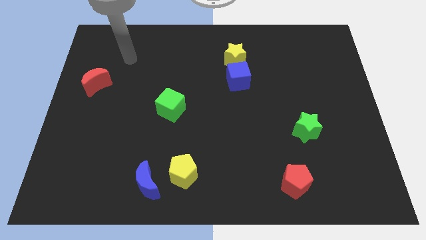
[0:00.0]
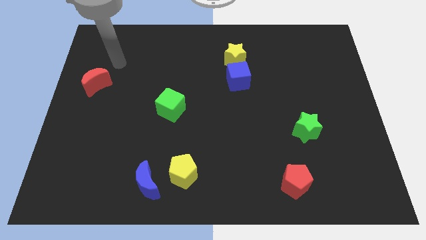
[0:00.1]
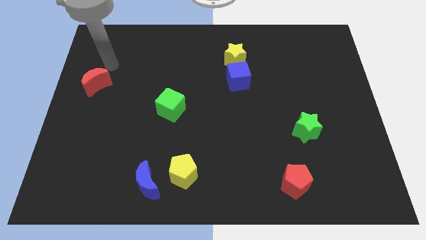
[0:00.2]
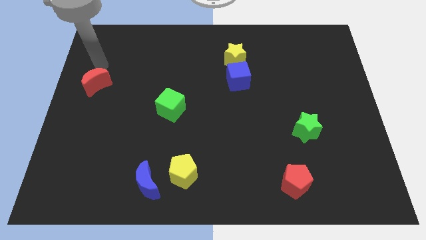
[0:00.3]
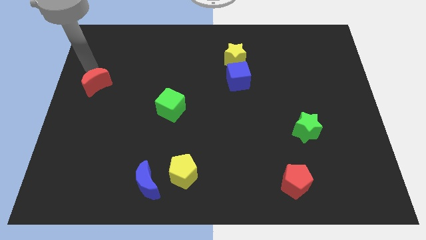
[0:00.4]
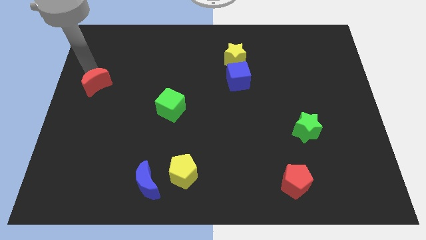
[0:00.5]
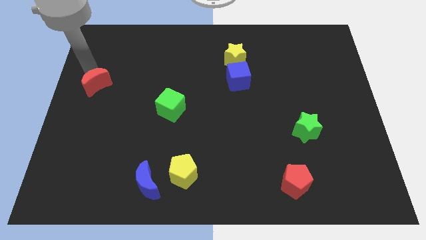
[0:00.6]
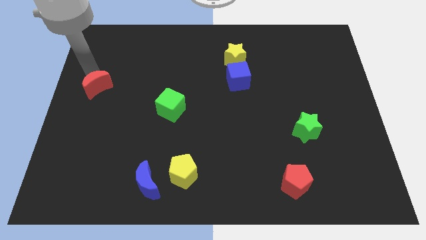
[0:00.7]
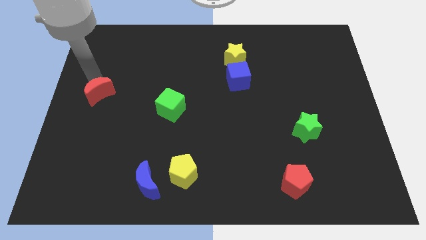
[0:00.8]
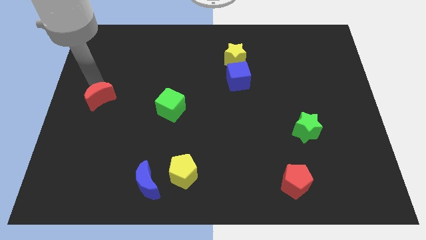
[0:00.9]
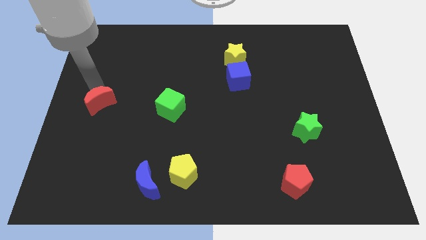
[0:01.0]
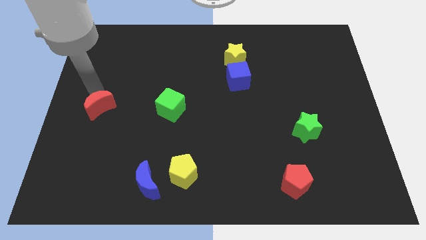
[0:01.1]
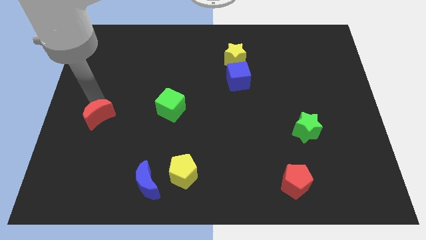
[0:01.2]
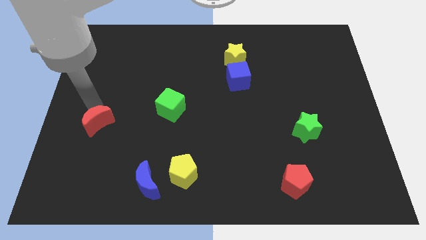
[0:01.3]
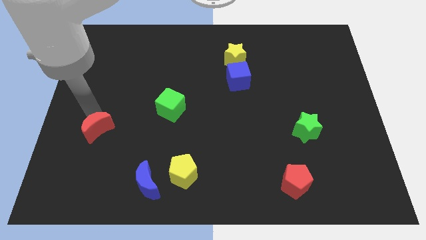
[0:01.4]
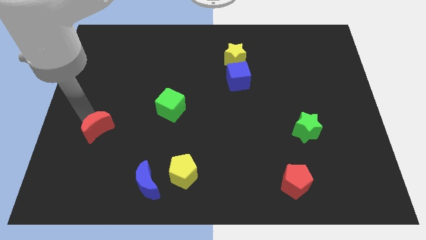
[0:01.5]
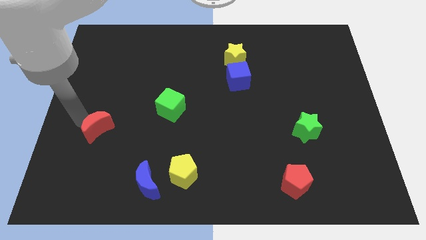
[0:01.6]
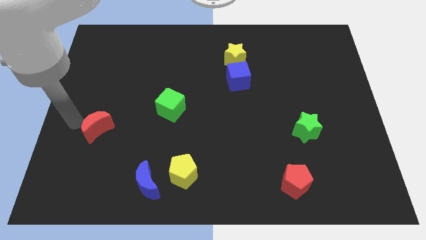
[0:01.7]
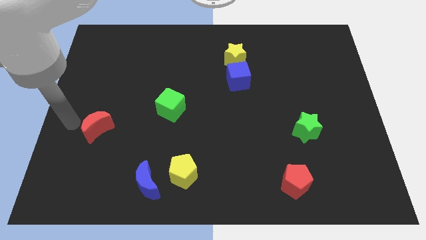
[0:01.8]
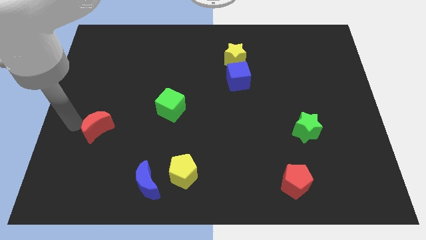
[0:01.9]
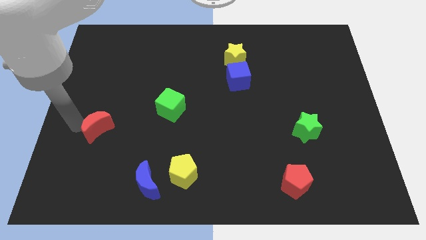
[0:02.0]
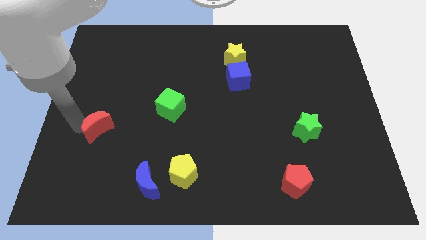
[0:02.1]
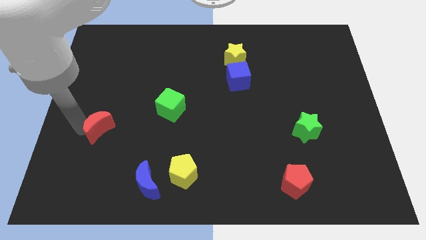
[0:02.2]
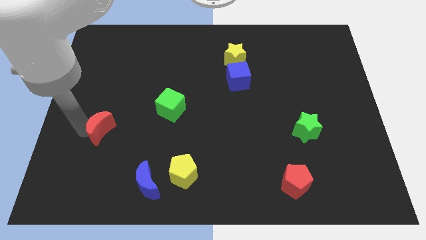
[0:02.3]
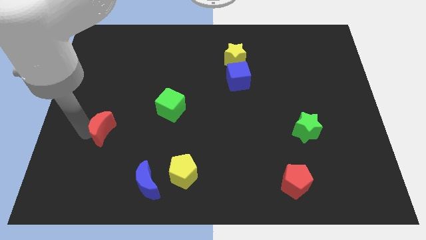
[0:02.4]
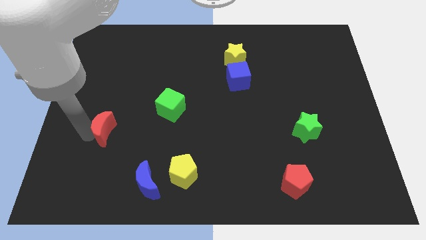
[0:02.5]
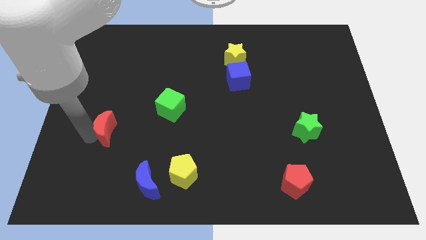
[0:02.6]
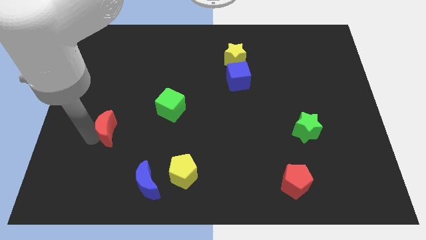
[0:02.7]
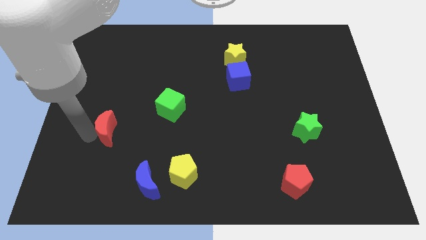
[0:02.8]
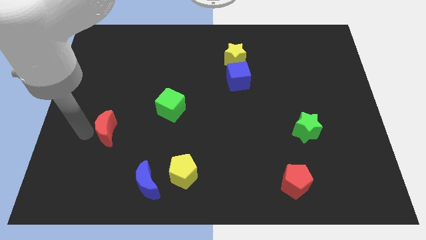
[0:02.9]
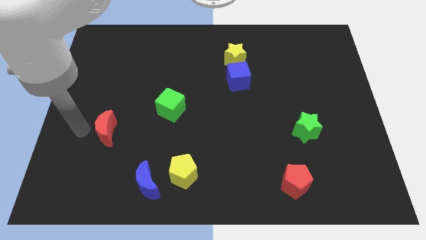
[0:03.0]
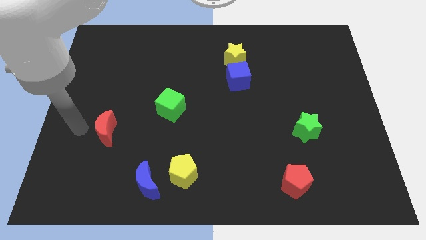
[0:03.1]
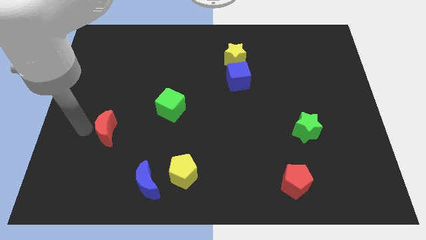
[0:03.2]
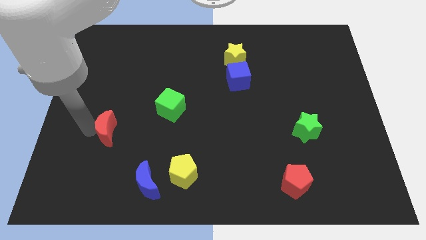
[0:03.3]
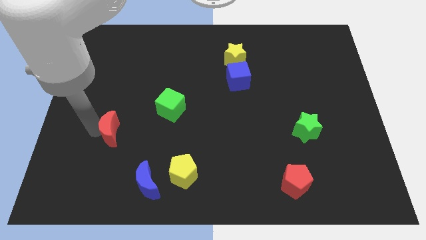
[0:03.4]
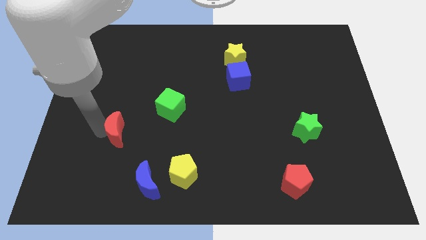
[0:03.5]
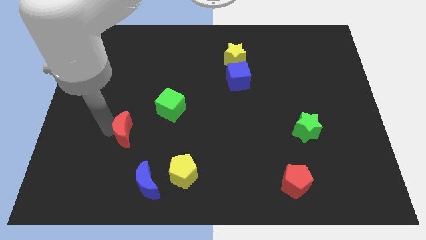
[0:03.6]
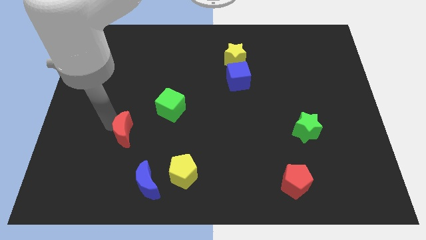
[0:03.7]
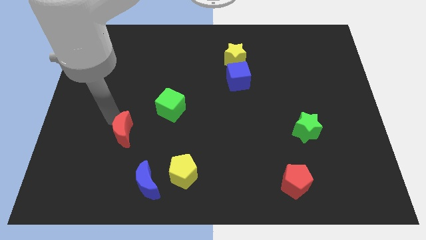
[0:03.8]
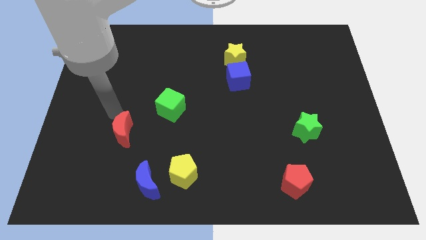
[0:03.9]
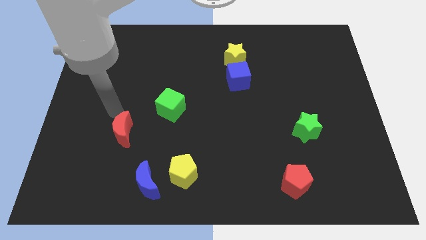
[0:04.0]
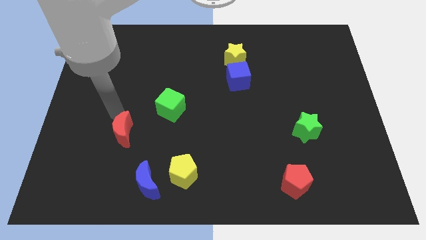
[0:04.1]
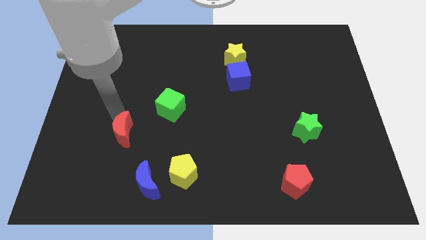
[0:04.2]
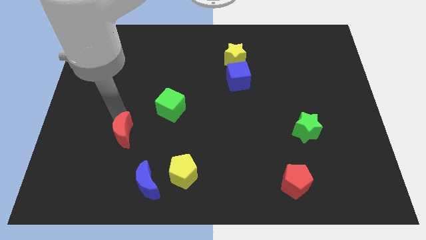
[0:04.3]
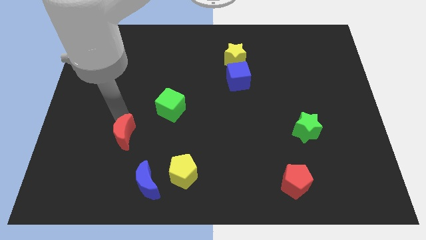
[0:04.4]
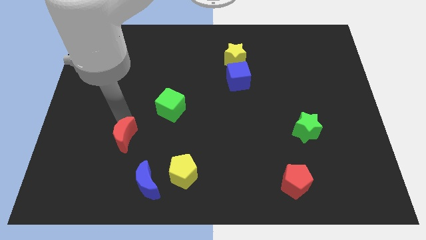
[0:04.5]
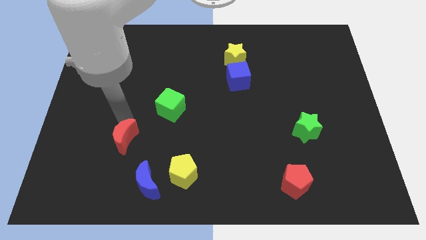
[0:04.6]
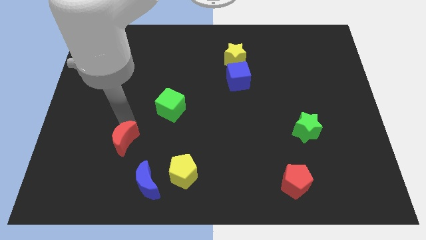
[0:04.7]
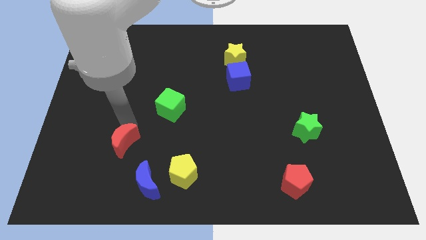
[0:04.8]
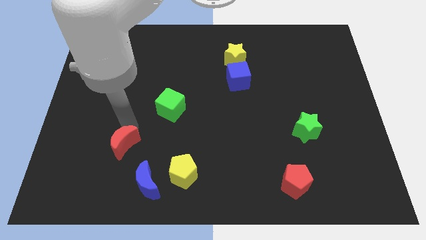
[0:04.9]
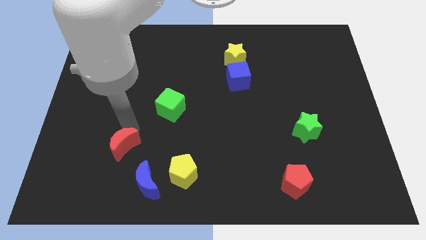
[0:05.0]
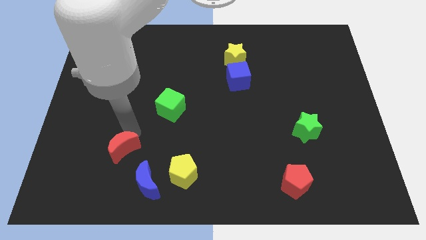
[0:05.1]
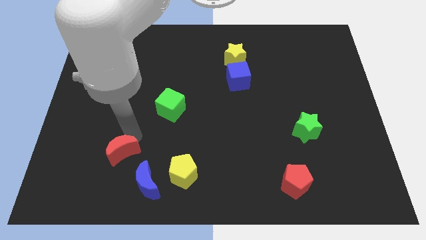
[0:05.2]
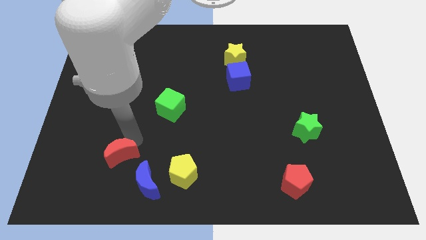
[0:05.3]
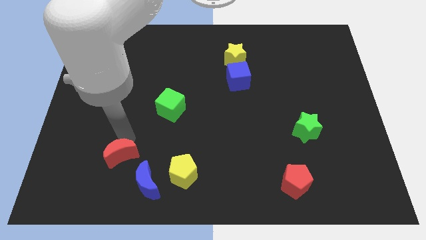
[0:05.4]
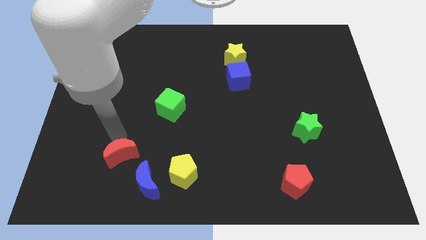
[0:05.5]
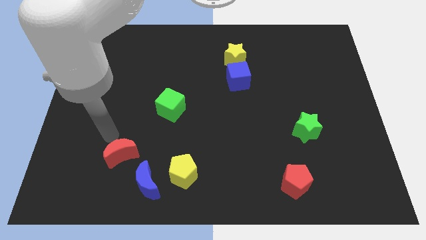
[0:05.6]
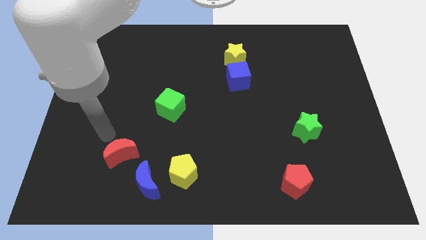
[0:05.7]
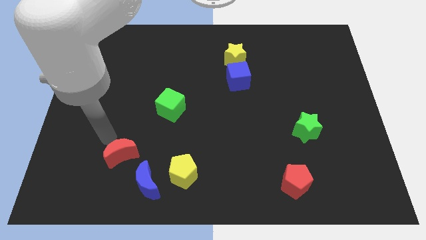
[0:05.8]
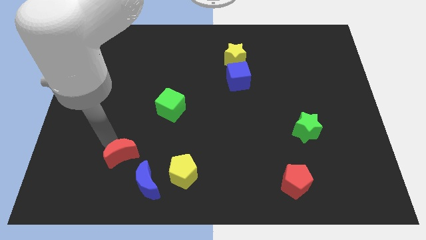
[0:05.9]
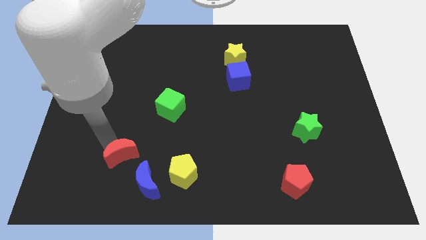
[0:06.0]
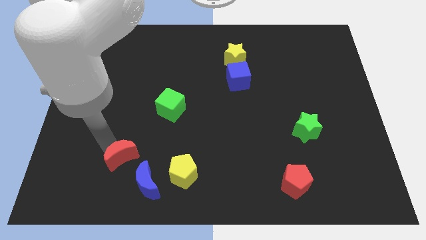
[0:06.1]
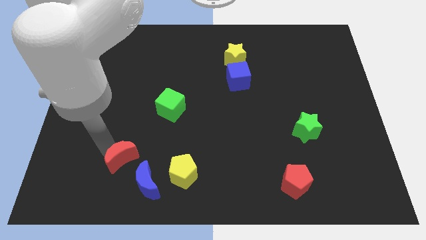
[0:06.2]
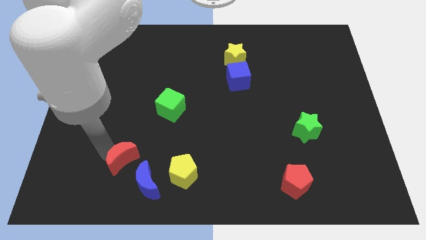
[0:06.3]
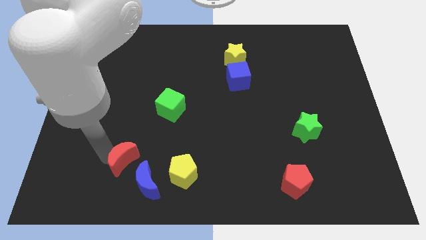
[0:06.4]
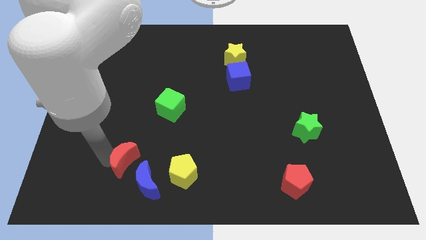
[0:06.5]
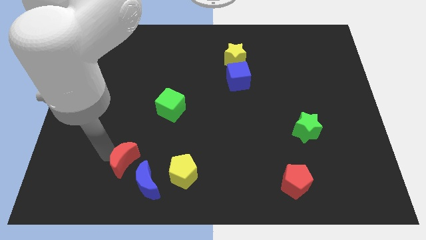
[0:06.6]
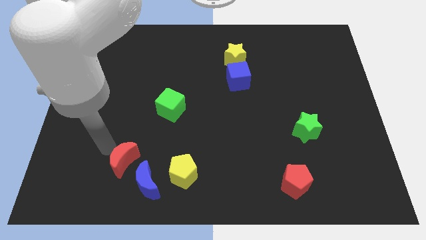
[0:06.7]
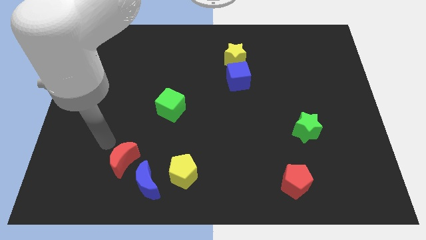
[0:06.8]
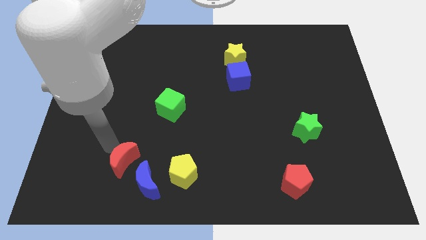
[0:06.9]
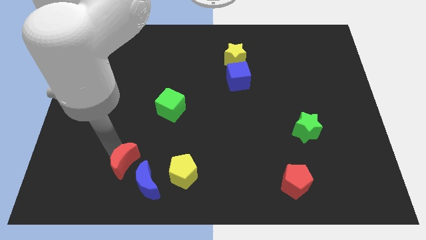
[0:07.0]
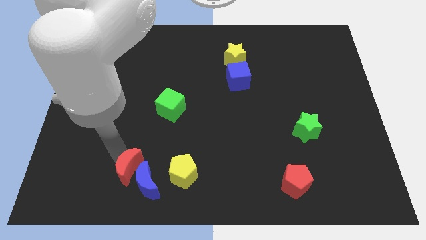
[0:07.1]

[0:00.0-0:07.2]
push the red moon close to the blue moon

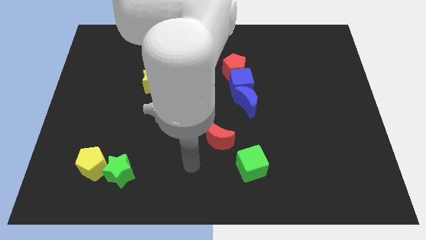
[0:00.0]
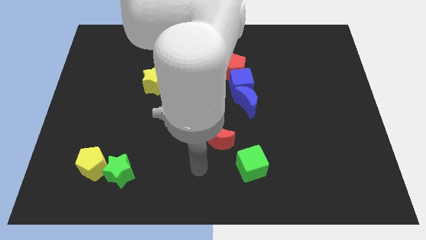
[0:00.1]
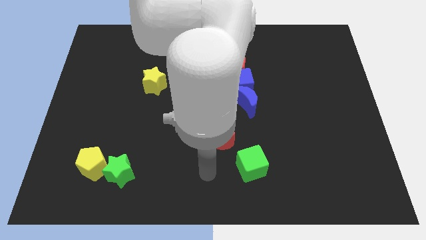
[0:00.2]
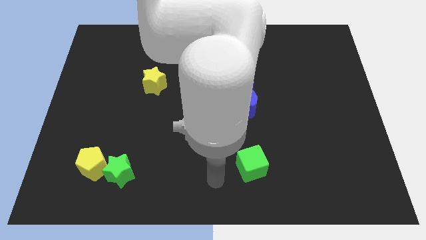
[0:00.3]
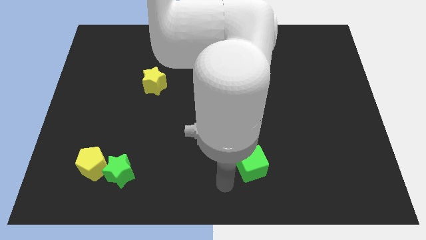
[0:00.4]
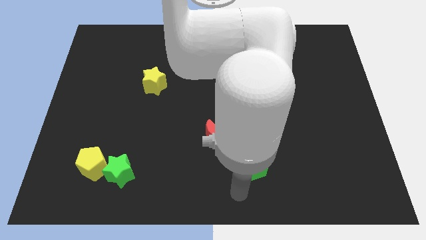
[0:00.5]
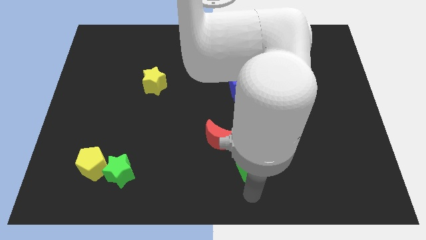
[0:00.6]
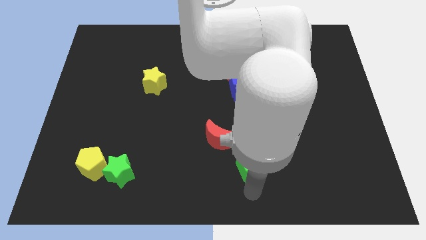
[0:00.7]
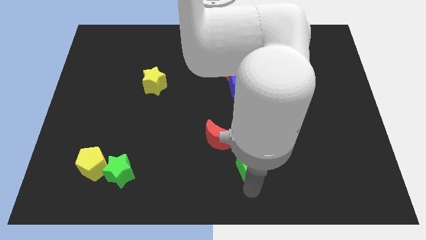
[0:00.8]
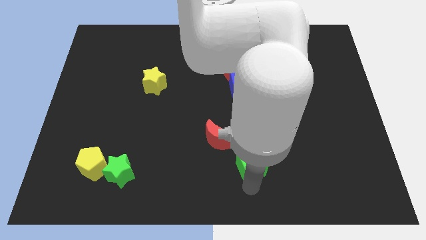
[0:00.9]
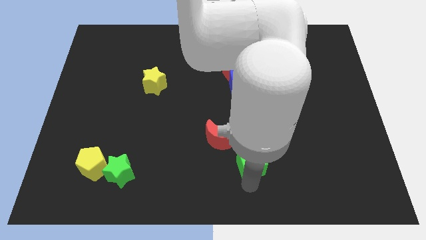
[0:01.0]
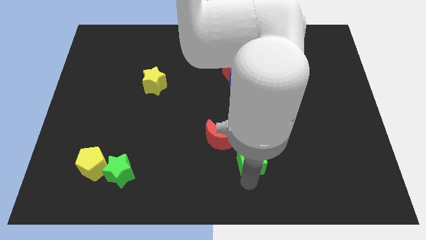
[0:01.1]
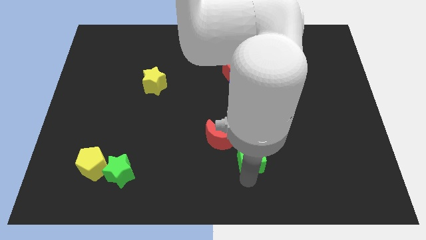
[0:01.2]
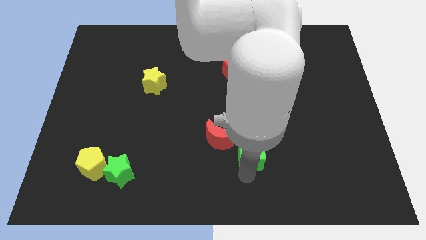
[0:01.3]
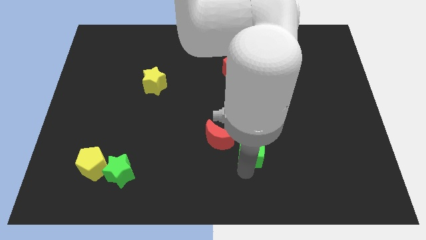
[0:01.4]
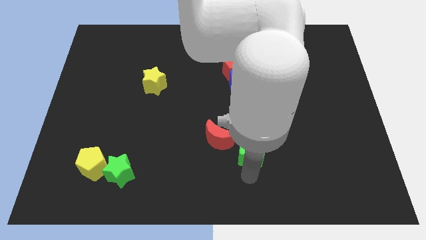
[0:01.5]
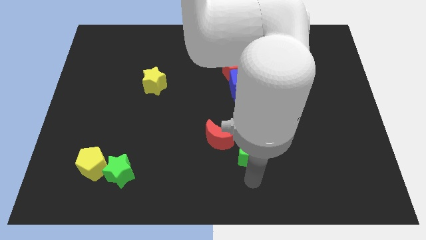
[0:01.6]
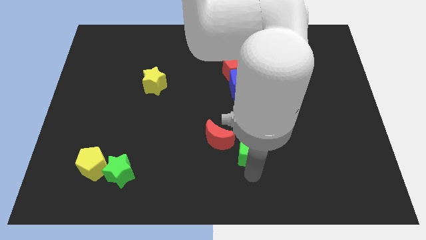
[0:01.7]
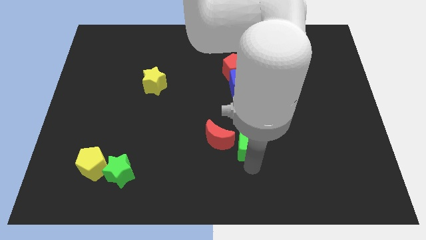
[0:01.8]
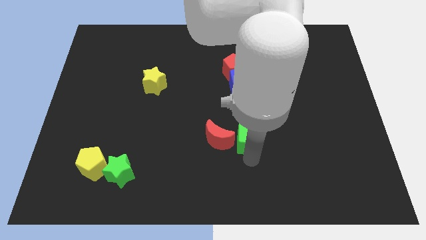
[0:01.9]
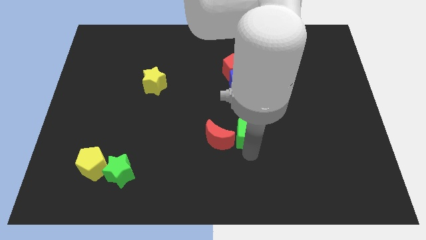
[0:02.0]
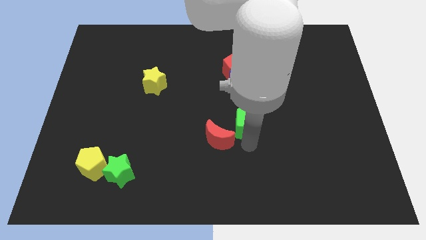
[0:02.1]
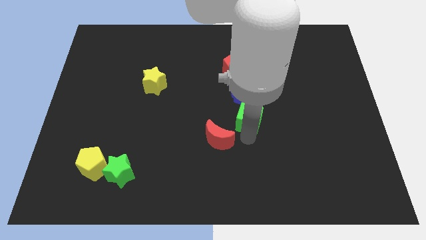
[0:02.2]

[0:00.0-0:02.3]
move the green cube close to the blue moon
